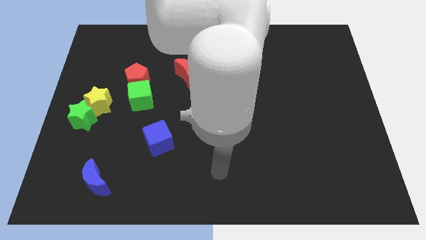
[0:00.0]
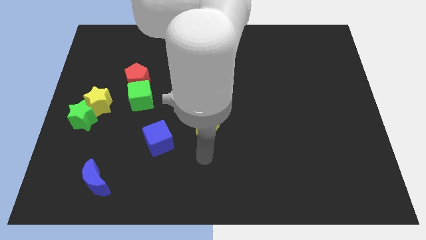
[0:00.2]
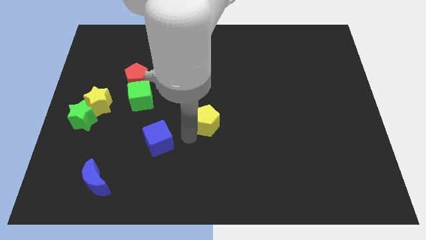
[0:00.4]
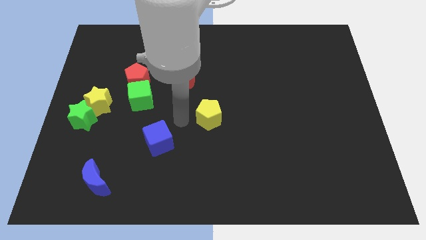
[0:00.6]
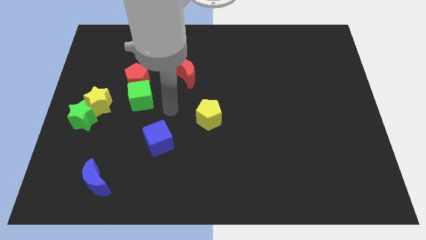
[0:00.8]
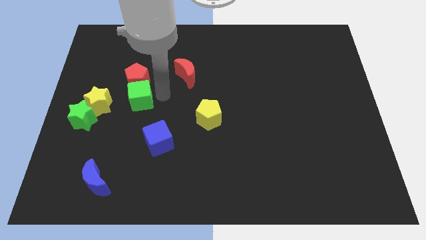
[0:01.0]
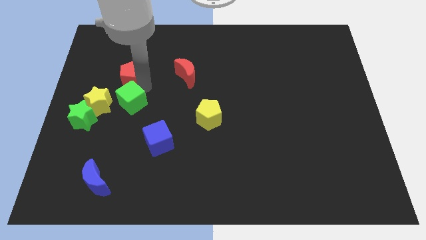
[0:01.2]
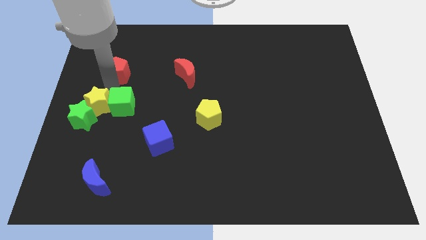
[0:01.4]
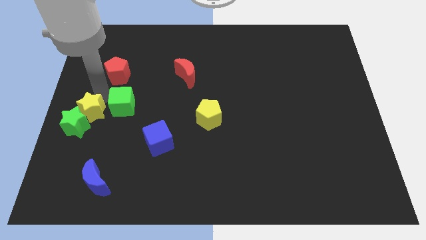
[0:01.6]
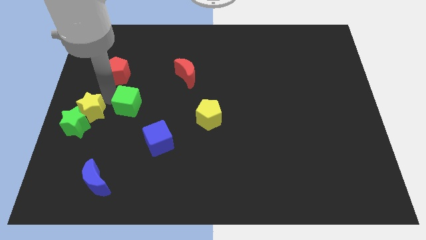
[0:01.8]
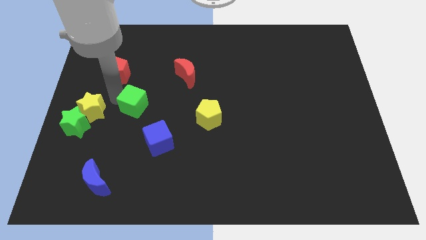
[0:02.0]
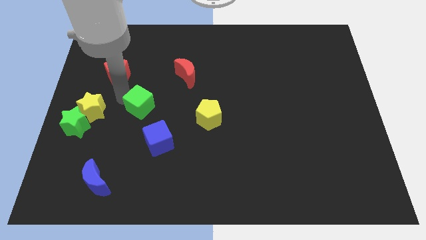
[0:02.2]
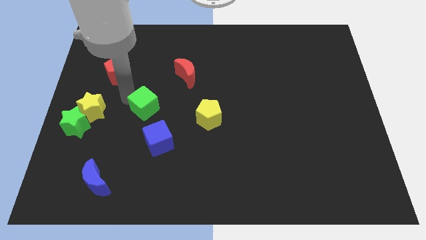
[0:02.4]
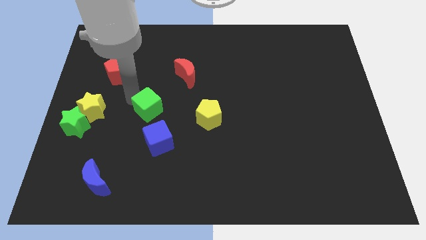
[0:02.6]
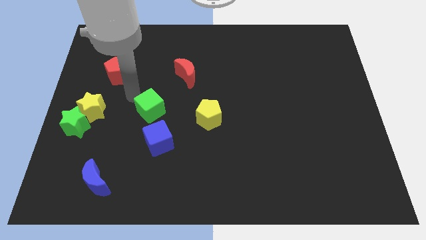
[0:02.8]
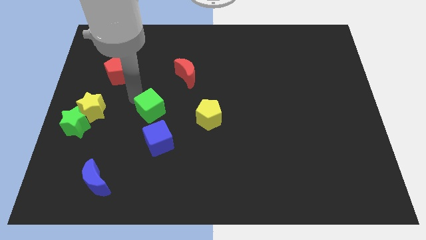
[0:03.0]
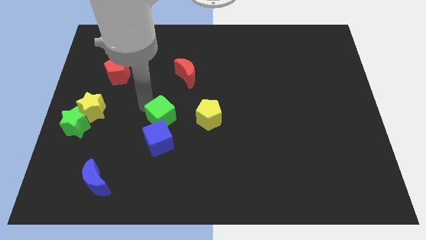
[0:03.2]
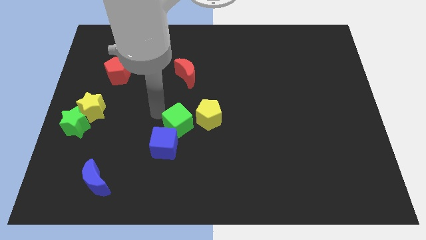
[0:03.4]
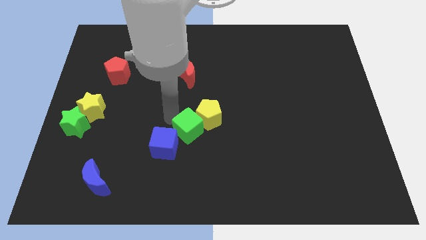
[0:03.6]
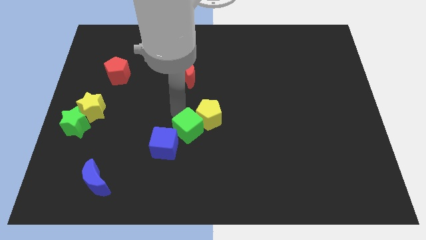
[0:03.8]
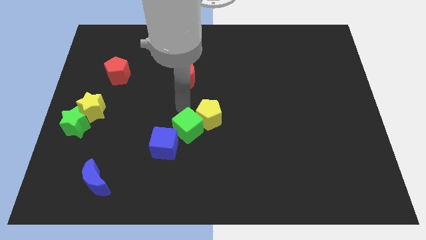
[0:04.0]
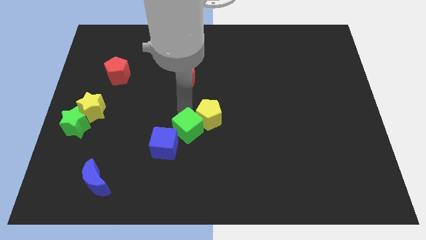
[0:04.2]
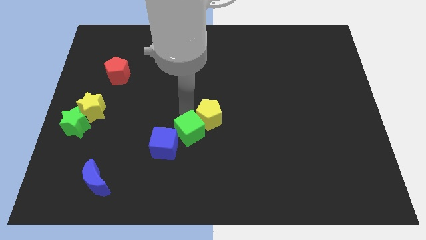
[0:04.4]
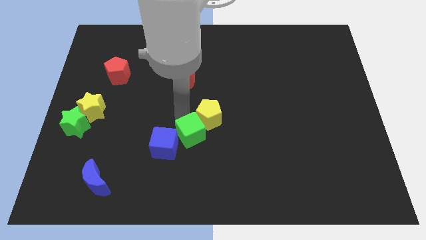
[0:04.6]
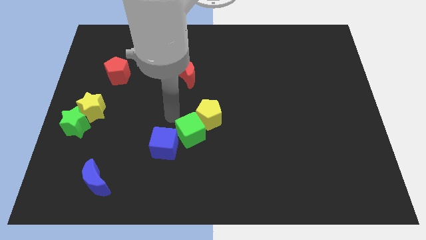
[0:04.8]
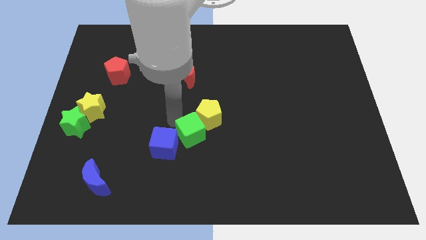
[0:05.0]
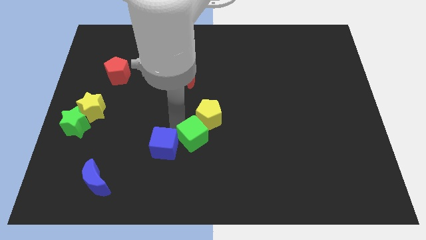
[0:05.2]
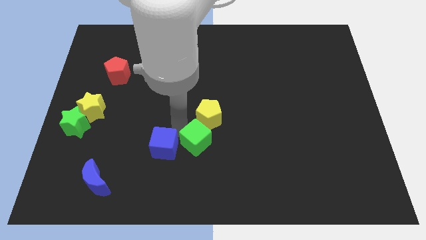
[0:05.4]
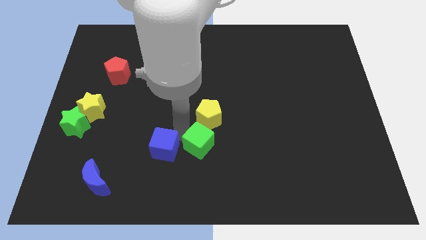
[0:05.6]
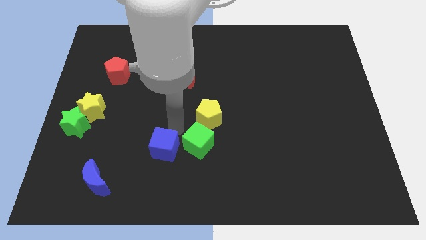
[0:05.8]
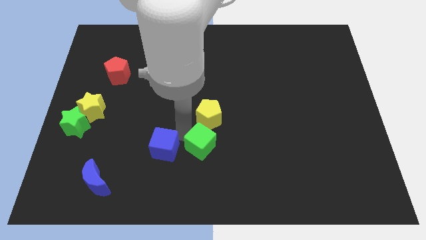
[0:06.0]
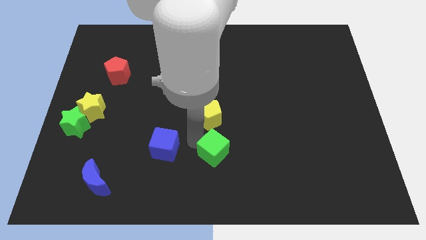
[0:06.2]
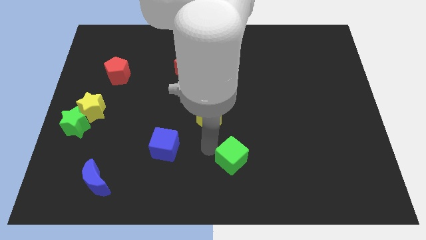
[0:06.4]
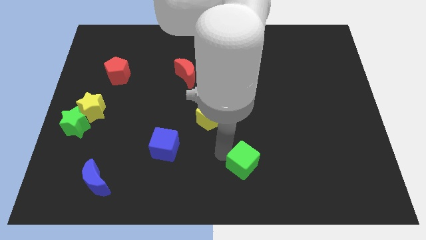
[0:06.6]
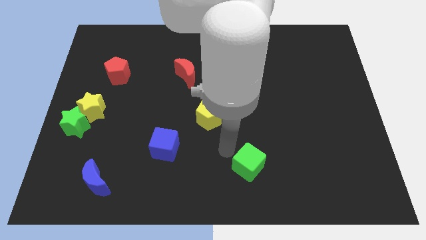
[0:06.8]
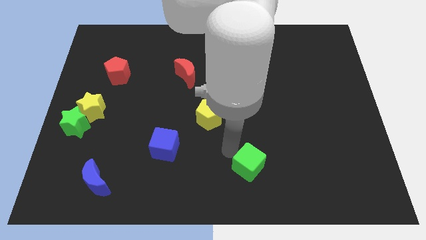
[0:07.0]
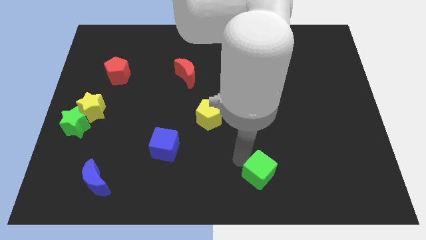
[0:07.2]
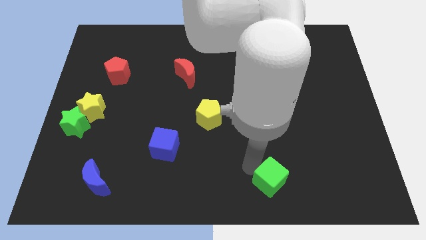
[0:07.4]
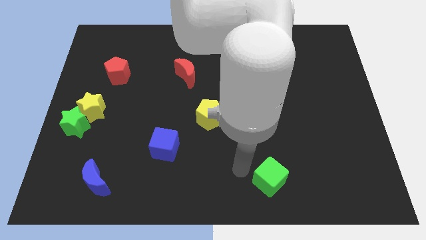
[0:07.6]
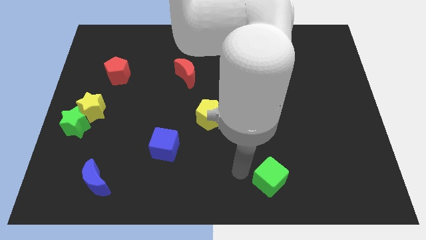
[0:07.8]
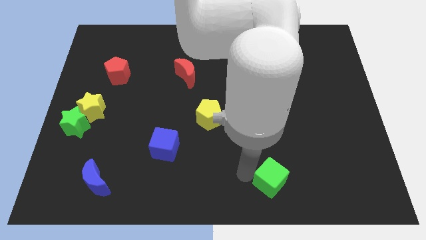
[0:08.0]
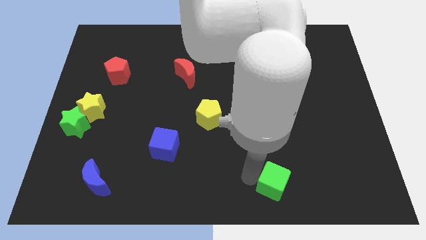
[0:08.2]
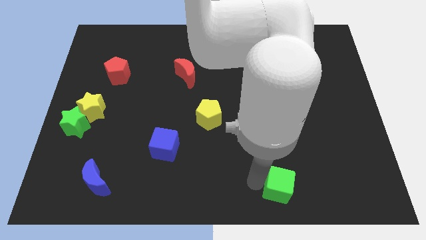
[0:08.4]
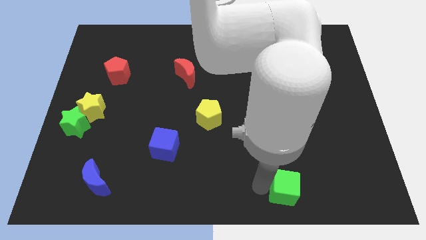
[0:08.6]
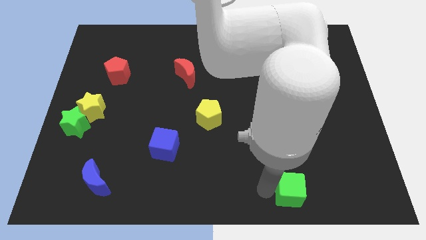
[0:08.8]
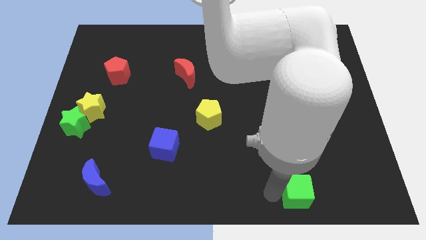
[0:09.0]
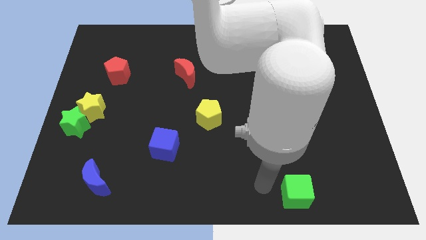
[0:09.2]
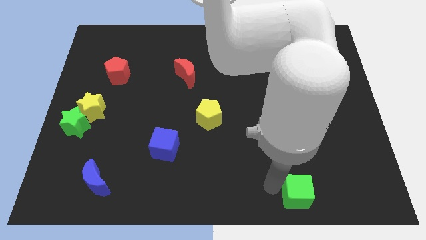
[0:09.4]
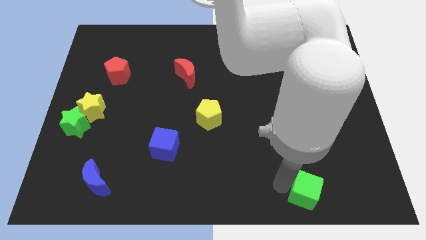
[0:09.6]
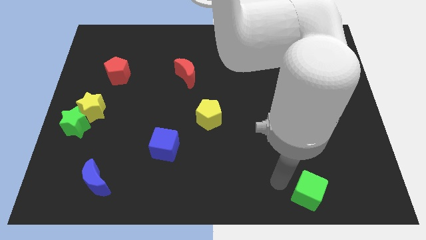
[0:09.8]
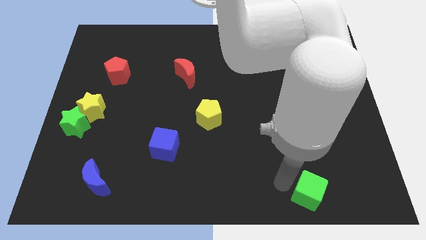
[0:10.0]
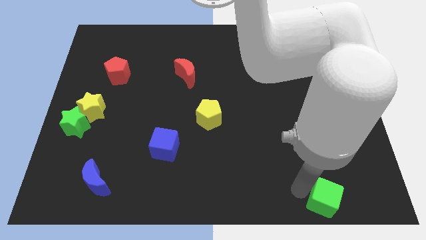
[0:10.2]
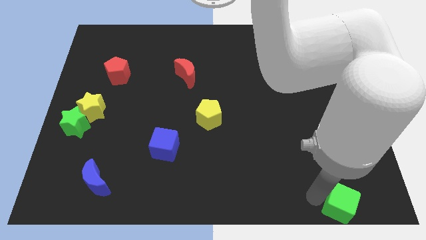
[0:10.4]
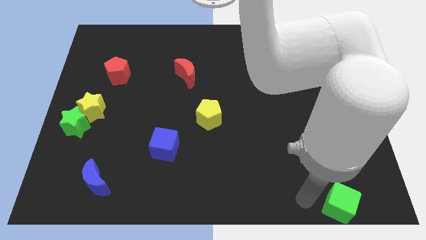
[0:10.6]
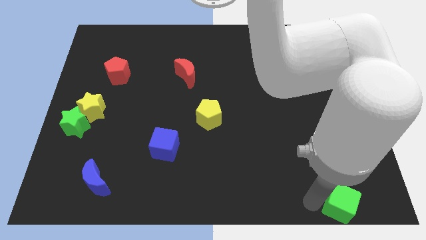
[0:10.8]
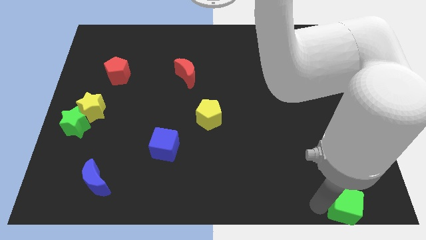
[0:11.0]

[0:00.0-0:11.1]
slide the green cube to the lower right corner

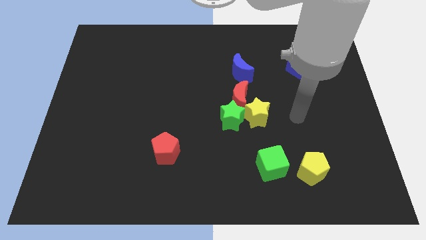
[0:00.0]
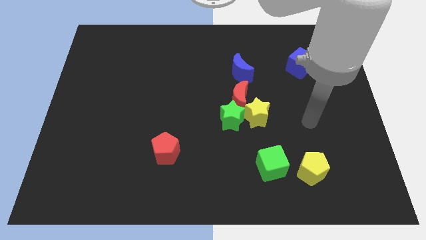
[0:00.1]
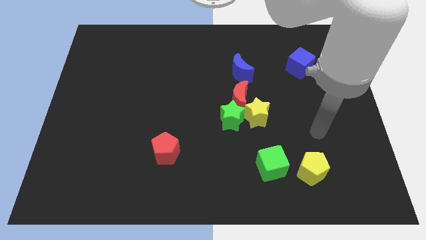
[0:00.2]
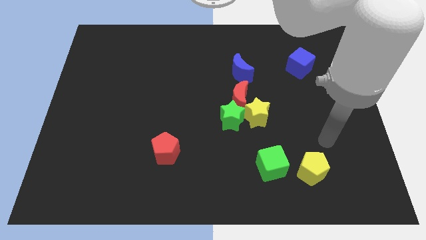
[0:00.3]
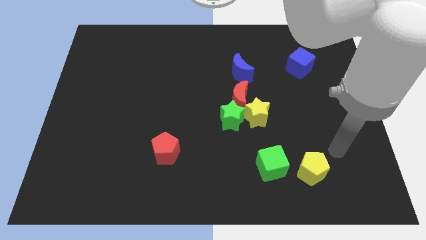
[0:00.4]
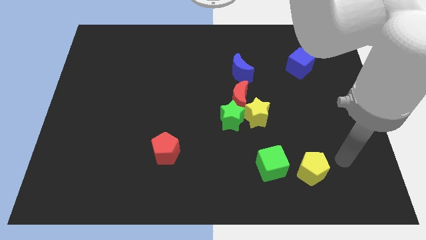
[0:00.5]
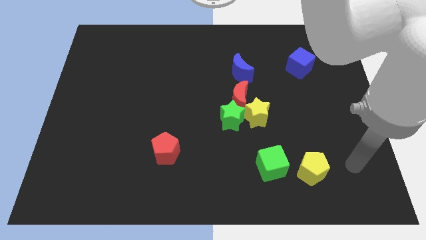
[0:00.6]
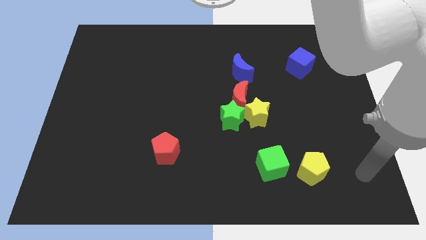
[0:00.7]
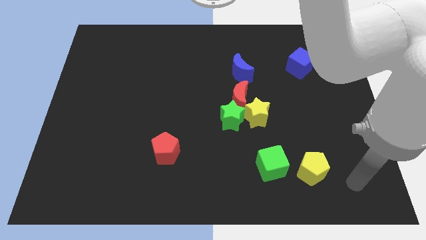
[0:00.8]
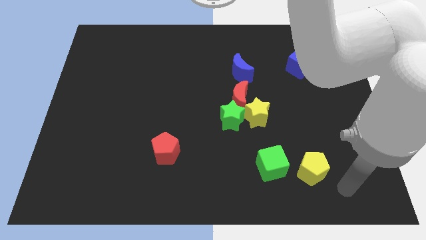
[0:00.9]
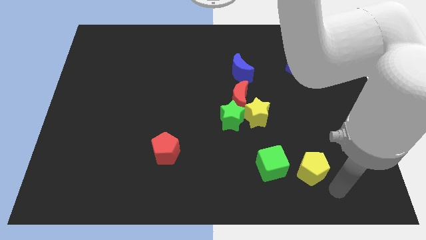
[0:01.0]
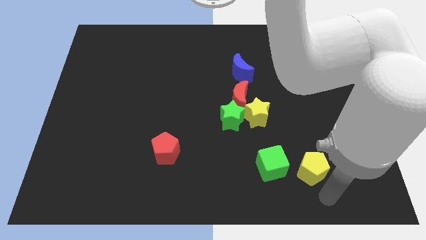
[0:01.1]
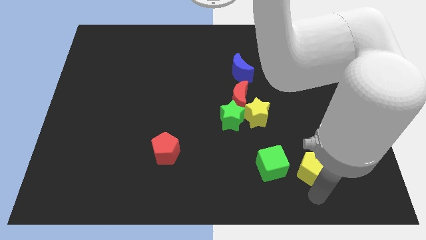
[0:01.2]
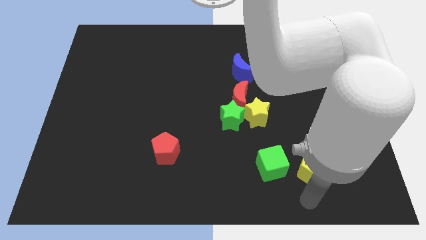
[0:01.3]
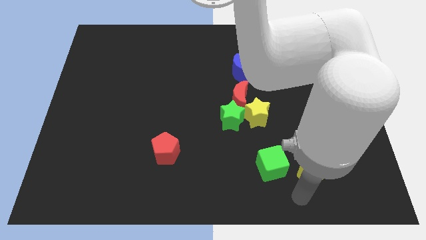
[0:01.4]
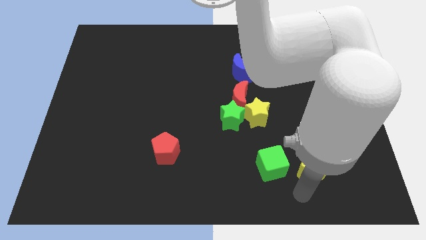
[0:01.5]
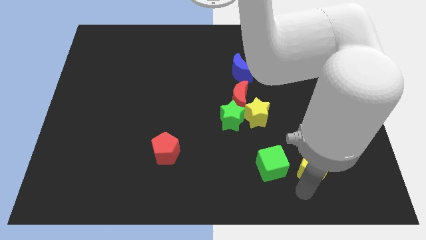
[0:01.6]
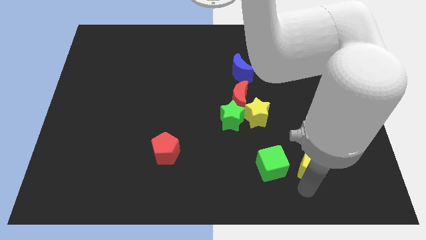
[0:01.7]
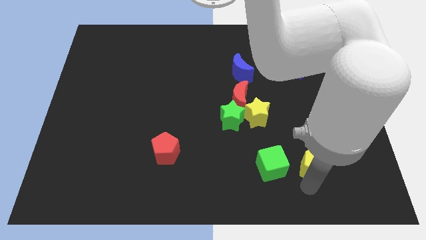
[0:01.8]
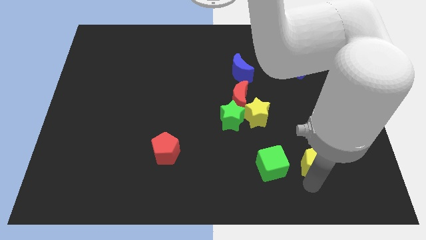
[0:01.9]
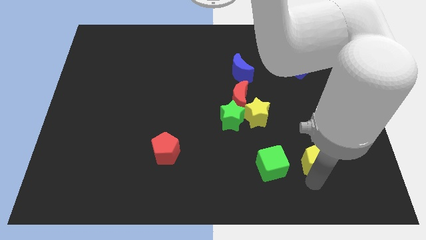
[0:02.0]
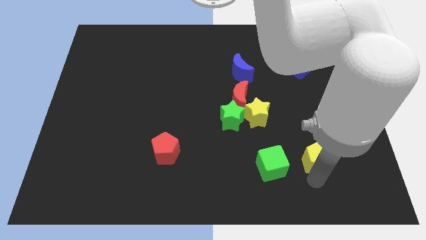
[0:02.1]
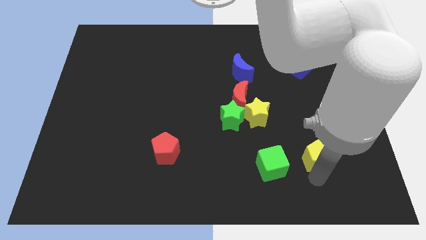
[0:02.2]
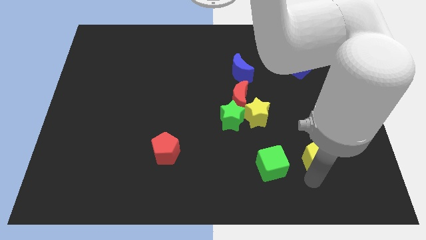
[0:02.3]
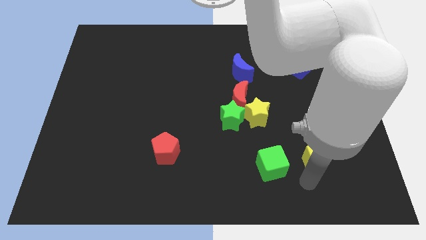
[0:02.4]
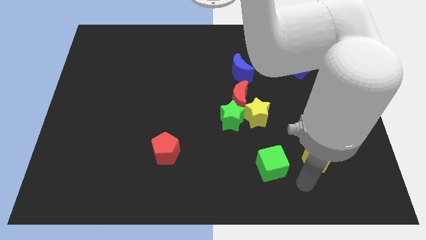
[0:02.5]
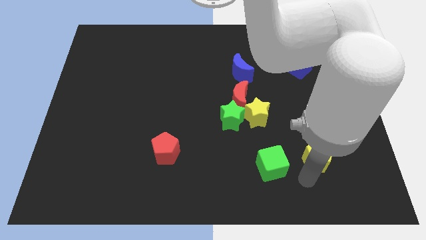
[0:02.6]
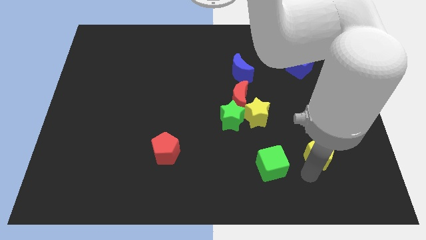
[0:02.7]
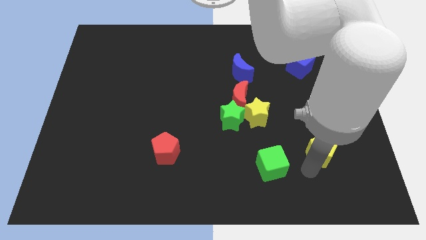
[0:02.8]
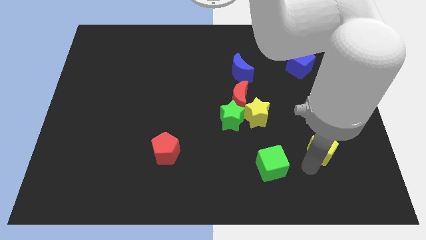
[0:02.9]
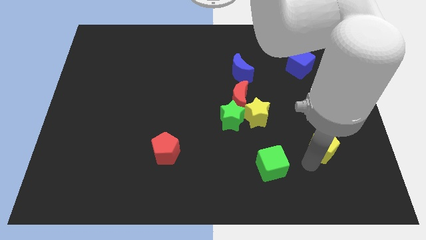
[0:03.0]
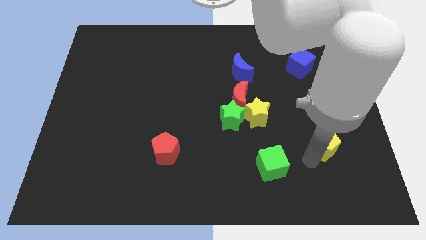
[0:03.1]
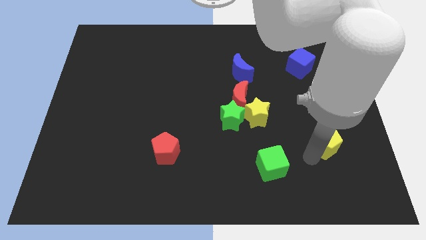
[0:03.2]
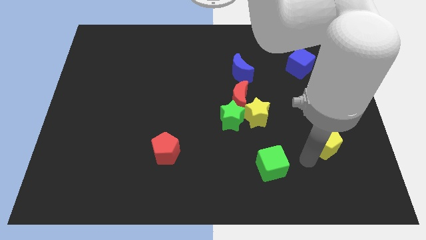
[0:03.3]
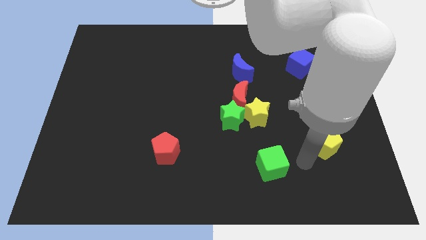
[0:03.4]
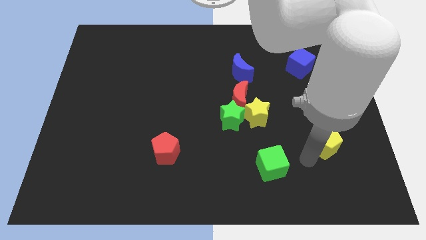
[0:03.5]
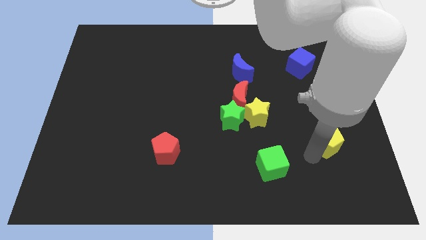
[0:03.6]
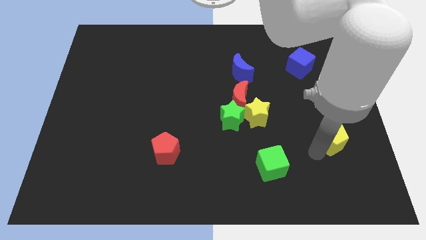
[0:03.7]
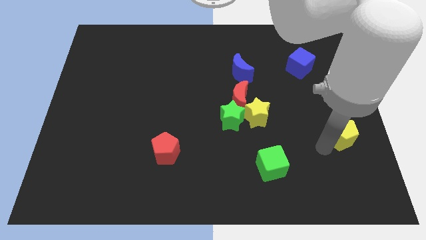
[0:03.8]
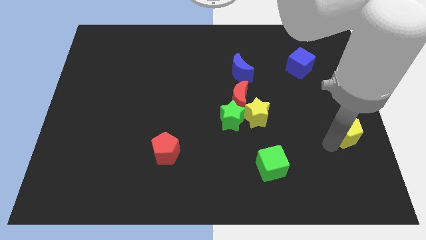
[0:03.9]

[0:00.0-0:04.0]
push the yellow pentagon to the center right
